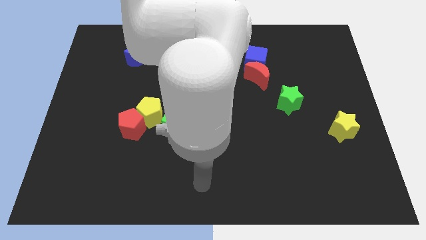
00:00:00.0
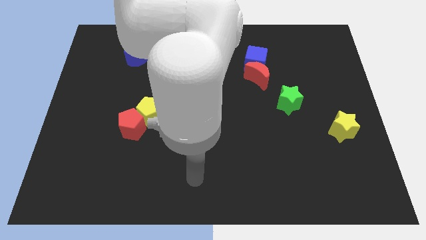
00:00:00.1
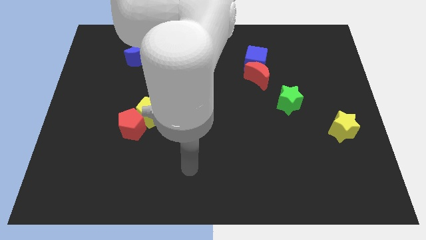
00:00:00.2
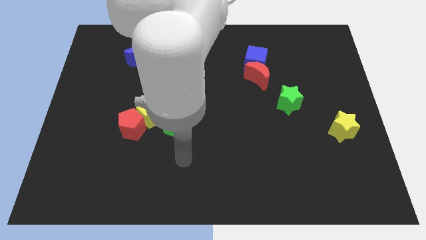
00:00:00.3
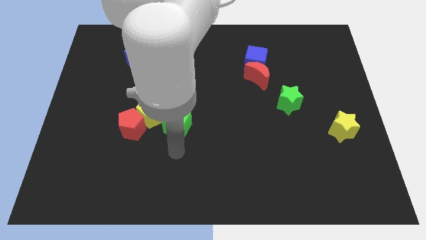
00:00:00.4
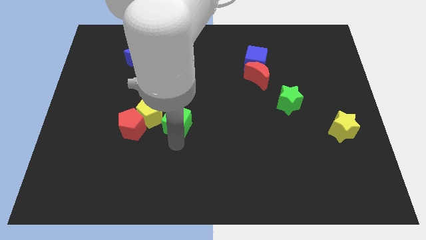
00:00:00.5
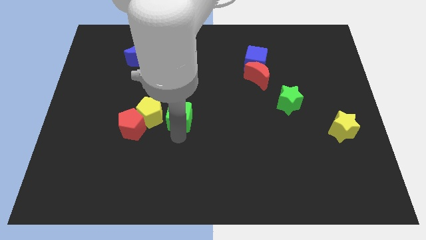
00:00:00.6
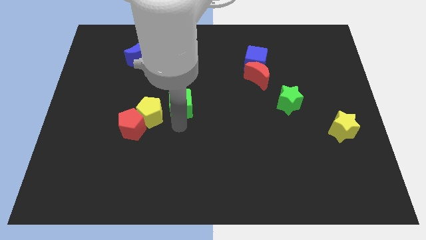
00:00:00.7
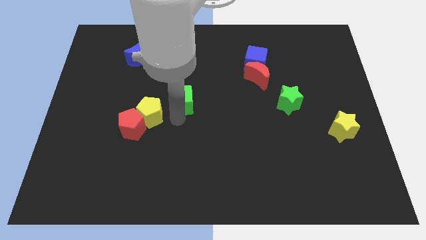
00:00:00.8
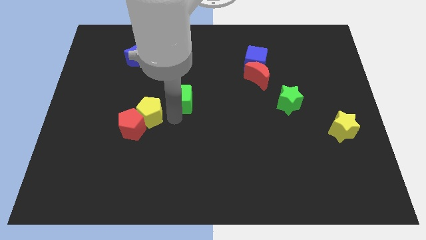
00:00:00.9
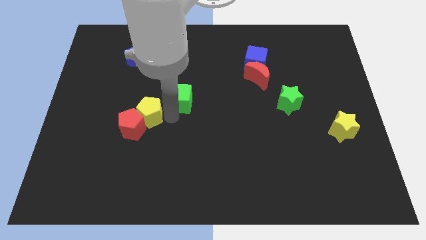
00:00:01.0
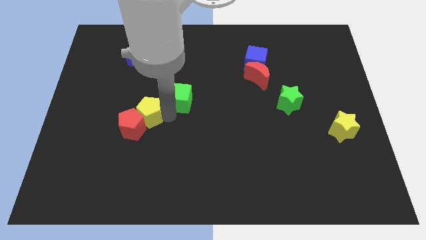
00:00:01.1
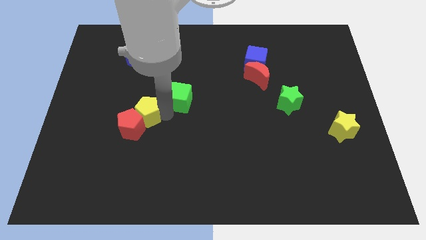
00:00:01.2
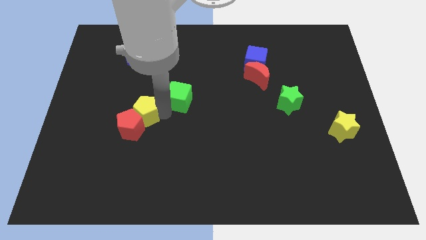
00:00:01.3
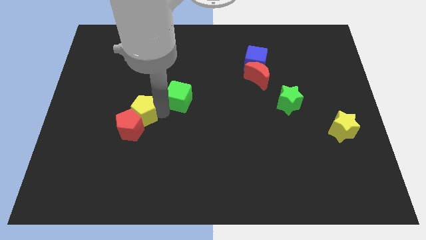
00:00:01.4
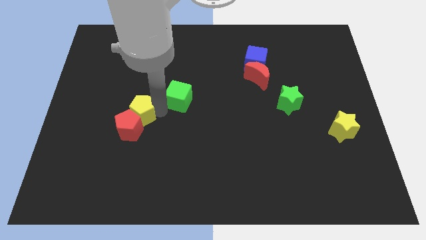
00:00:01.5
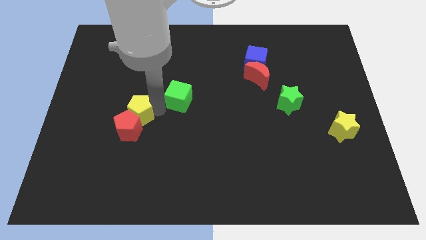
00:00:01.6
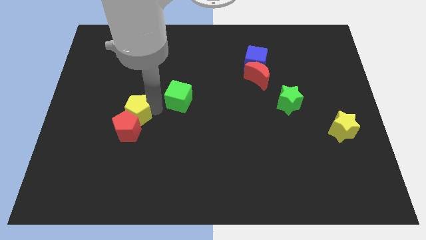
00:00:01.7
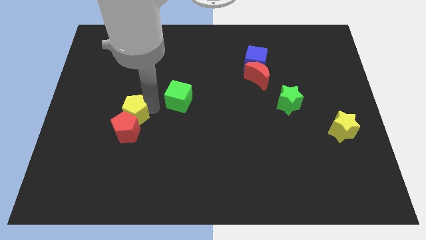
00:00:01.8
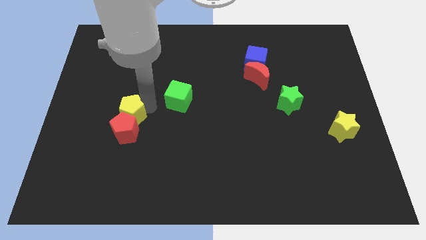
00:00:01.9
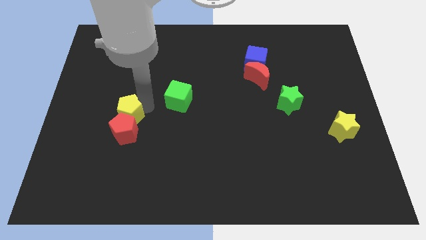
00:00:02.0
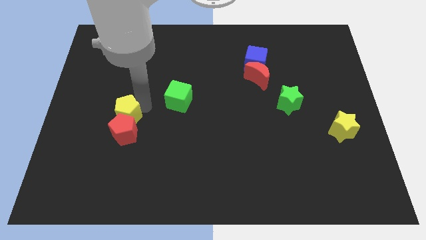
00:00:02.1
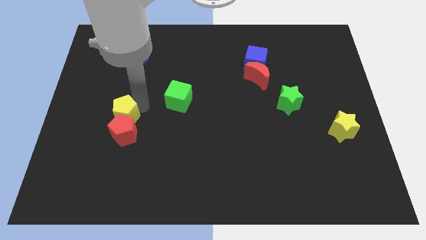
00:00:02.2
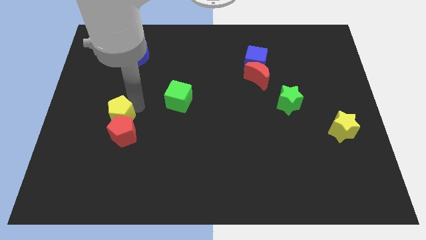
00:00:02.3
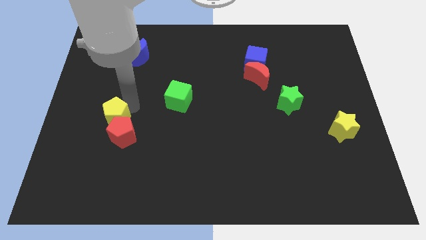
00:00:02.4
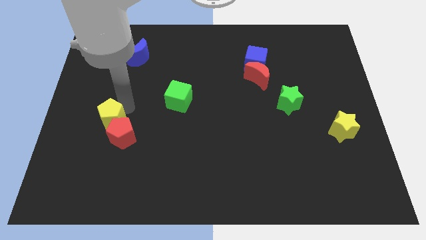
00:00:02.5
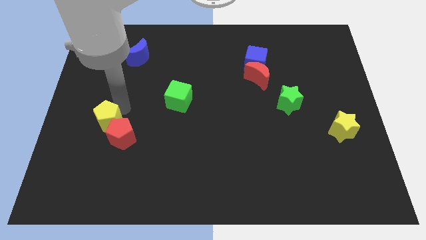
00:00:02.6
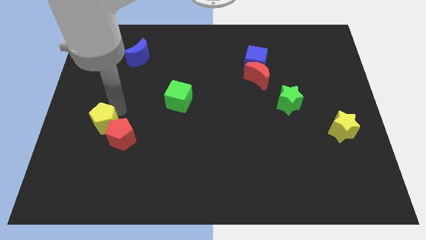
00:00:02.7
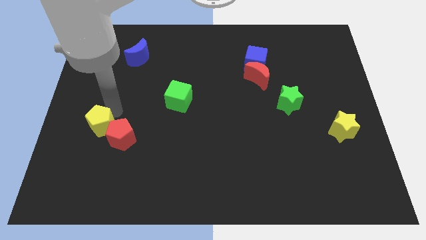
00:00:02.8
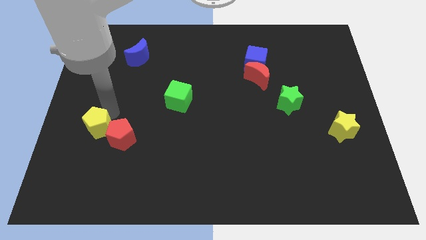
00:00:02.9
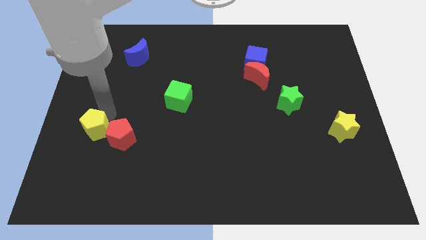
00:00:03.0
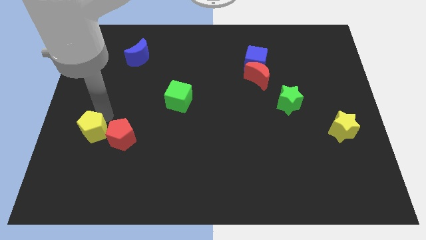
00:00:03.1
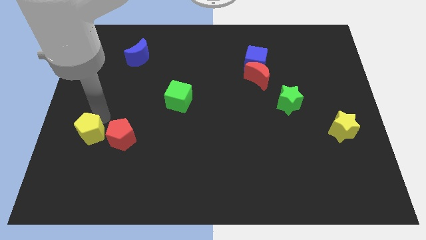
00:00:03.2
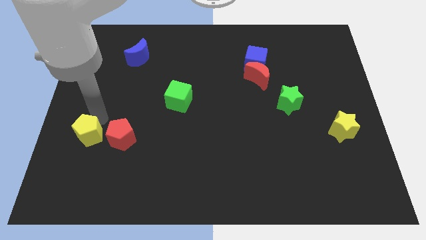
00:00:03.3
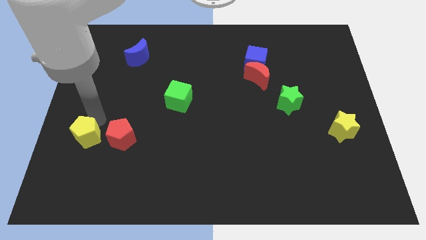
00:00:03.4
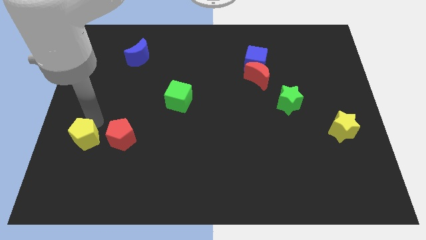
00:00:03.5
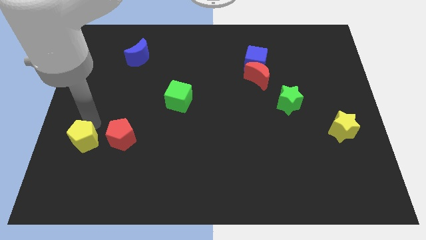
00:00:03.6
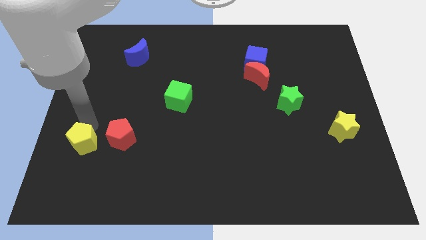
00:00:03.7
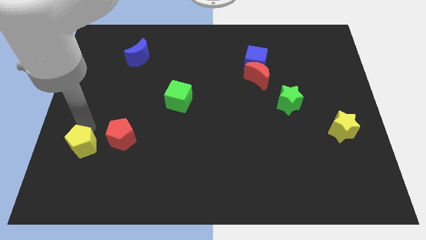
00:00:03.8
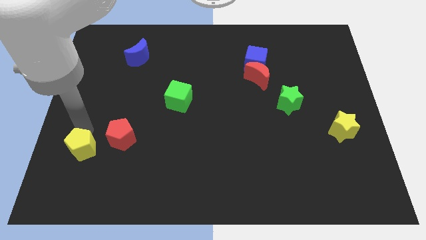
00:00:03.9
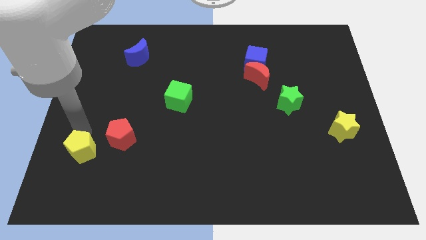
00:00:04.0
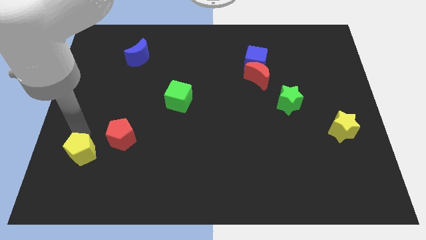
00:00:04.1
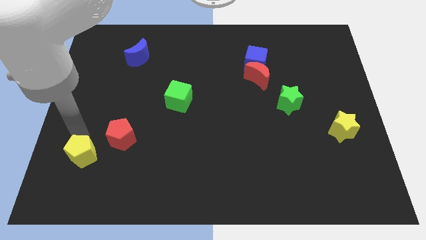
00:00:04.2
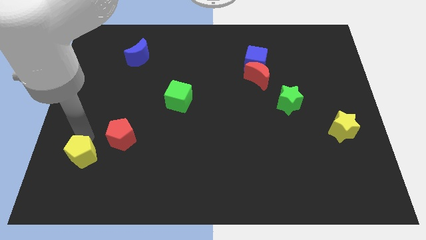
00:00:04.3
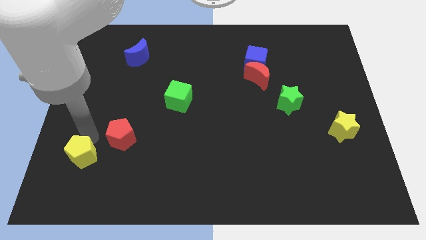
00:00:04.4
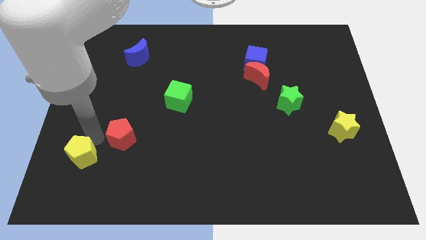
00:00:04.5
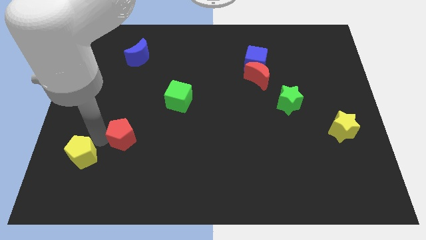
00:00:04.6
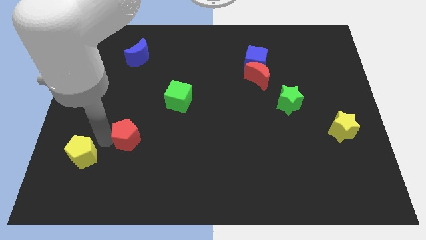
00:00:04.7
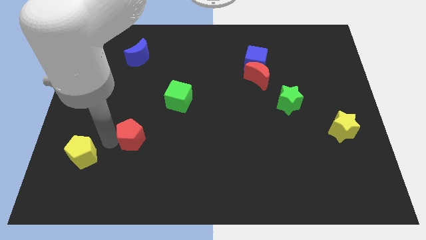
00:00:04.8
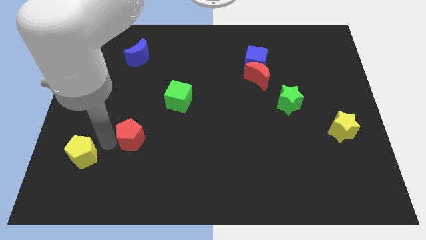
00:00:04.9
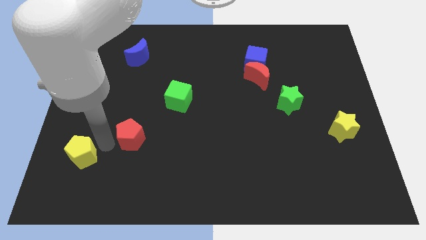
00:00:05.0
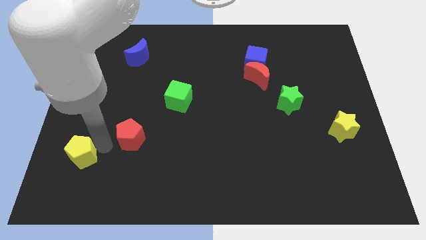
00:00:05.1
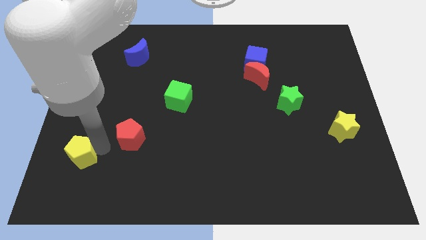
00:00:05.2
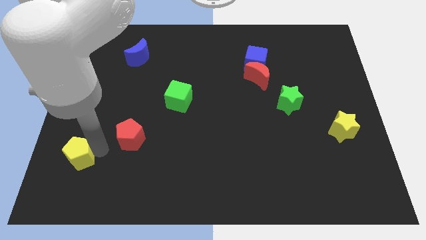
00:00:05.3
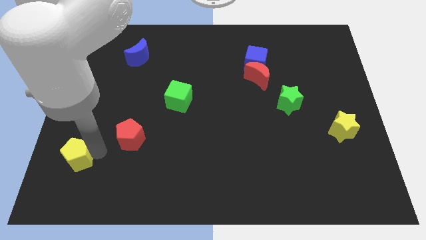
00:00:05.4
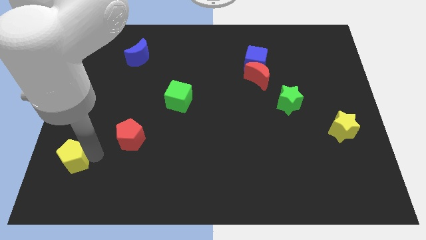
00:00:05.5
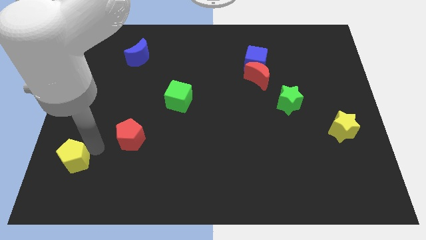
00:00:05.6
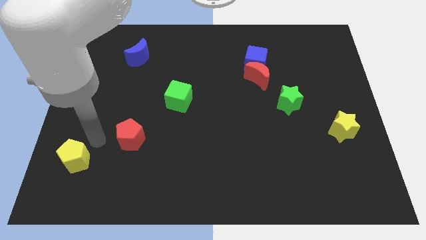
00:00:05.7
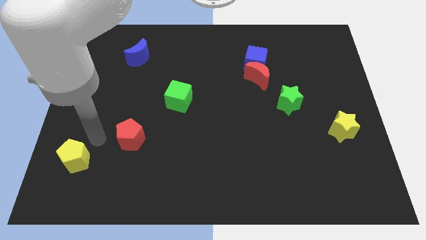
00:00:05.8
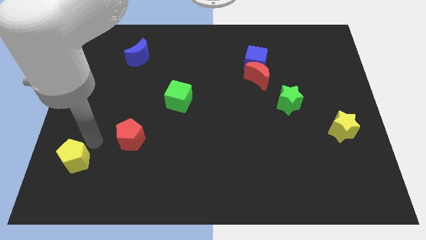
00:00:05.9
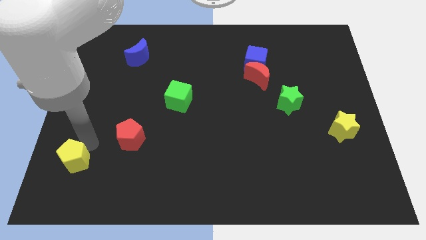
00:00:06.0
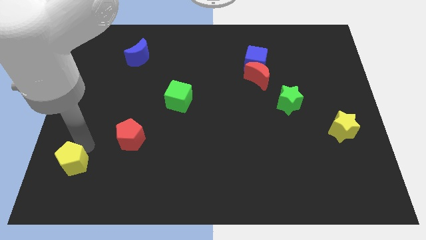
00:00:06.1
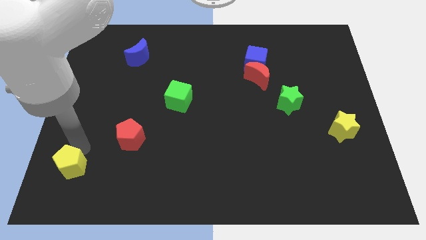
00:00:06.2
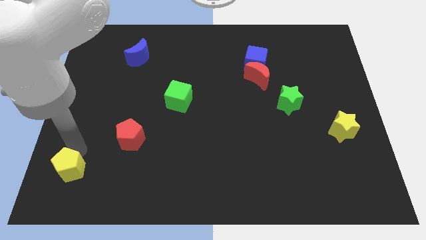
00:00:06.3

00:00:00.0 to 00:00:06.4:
put the yellow pentagon to the bottom left corner

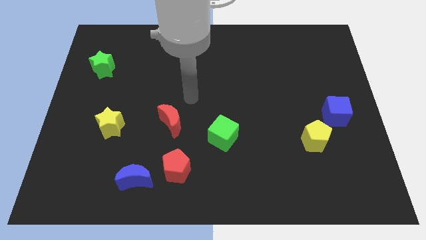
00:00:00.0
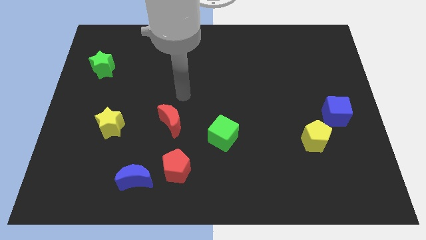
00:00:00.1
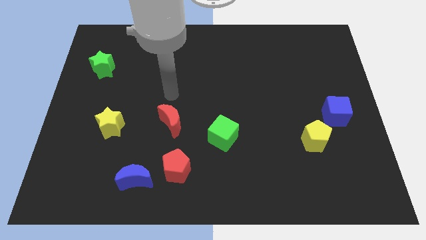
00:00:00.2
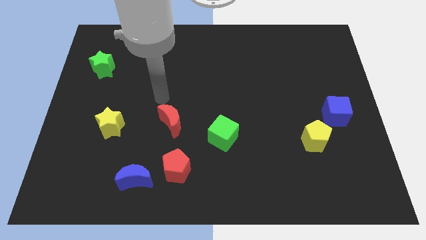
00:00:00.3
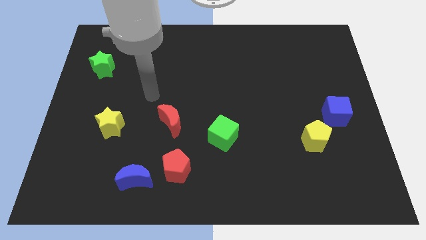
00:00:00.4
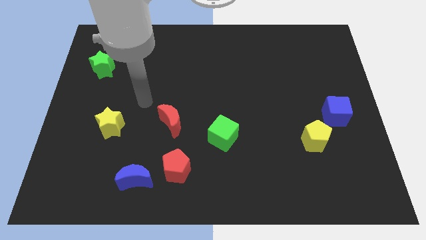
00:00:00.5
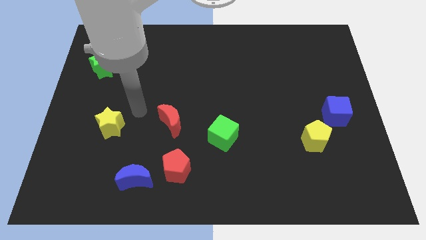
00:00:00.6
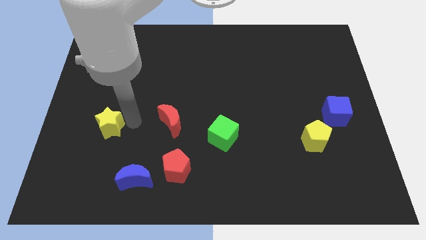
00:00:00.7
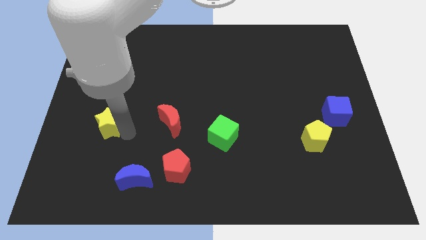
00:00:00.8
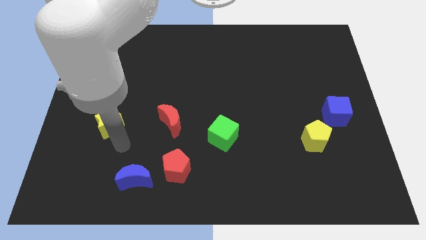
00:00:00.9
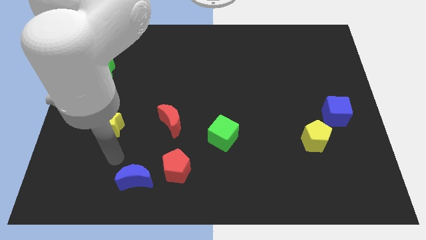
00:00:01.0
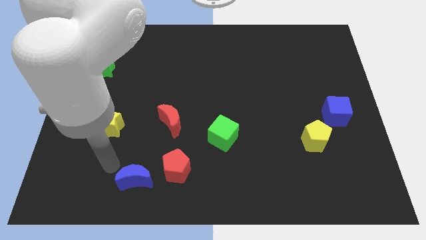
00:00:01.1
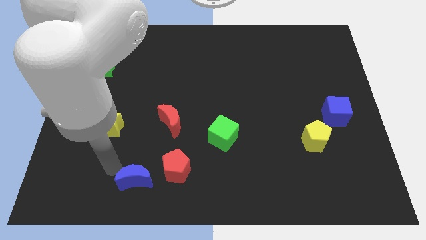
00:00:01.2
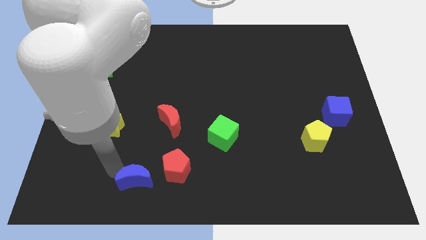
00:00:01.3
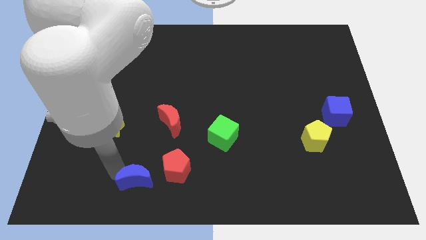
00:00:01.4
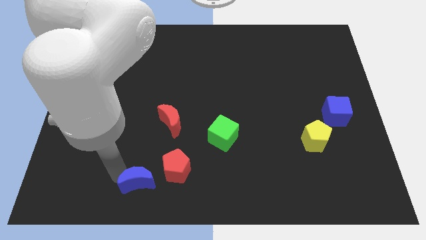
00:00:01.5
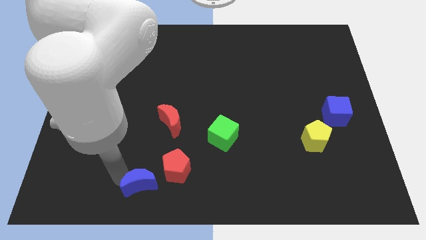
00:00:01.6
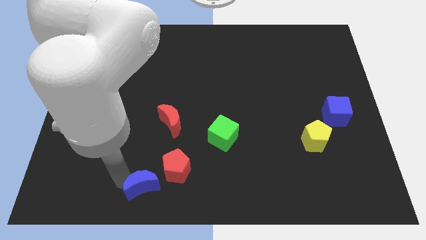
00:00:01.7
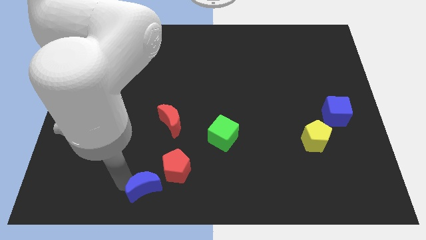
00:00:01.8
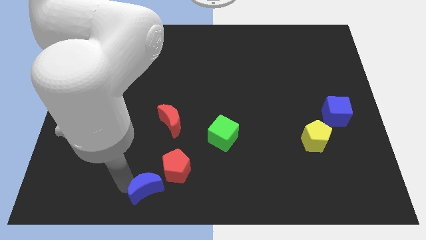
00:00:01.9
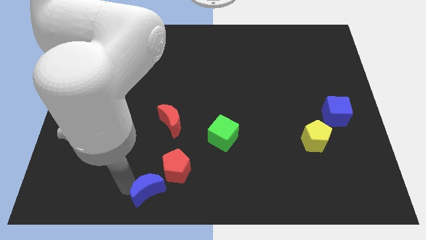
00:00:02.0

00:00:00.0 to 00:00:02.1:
put the blue moon to the bottom
